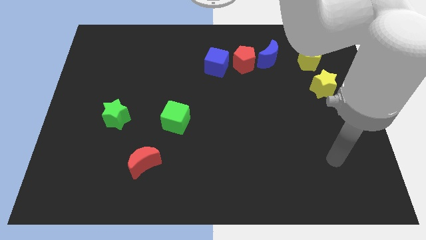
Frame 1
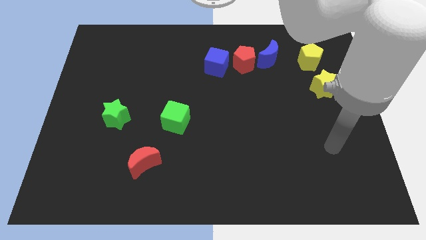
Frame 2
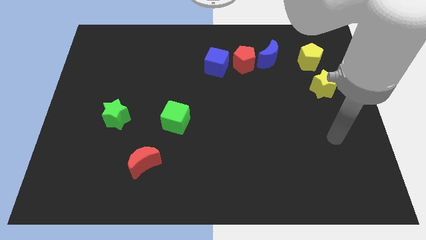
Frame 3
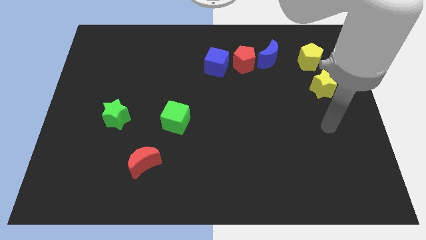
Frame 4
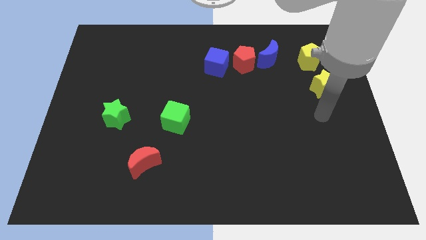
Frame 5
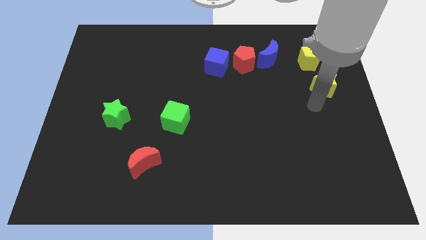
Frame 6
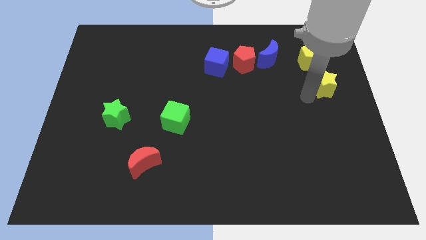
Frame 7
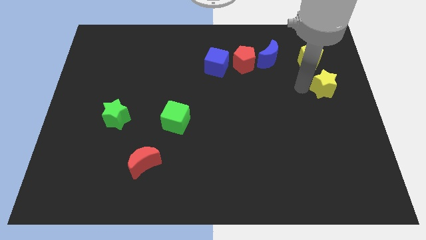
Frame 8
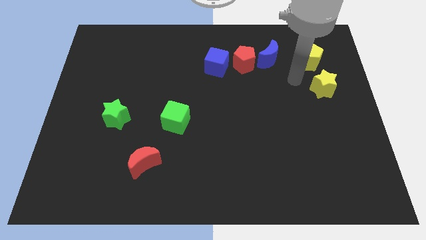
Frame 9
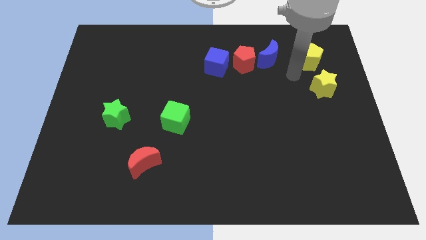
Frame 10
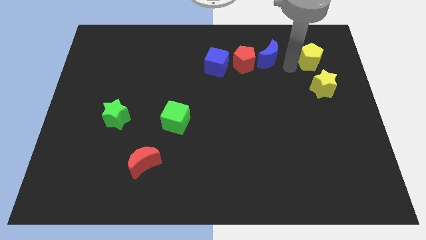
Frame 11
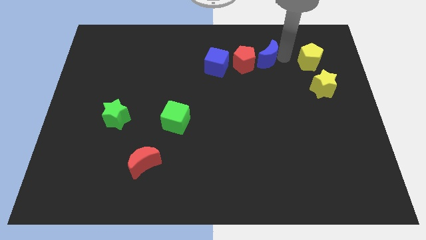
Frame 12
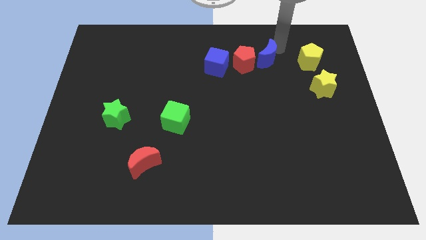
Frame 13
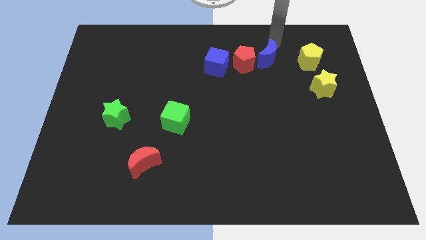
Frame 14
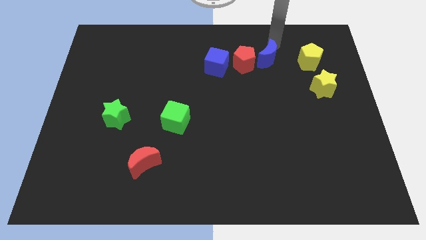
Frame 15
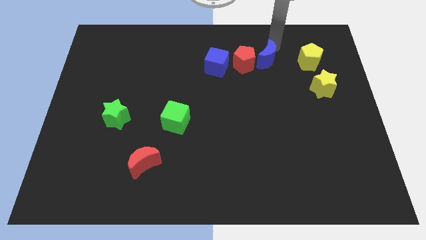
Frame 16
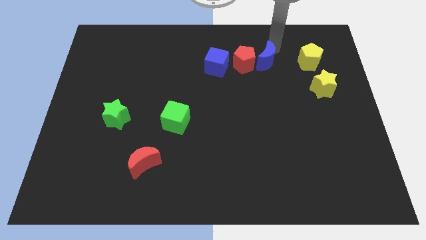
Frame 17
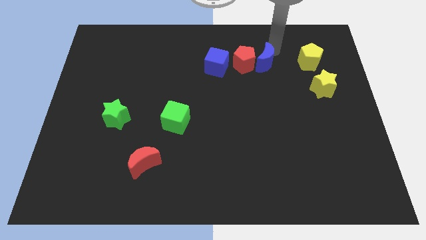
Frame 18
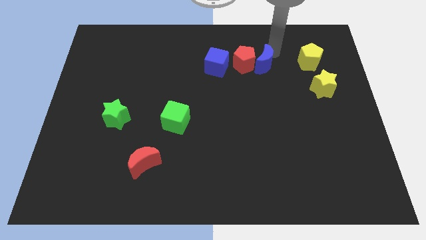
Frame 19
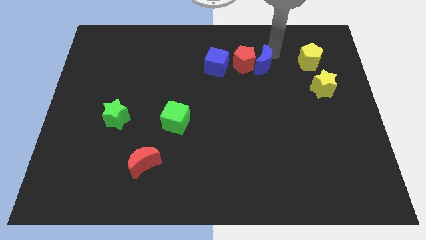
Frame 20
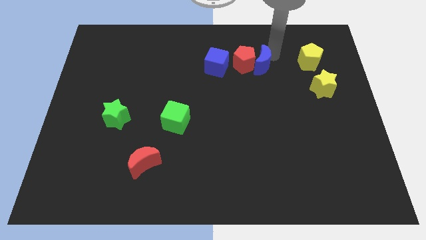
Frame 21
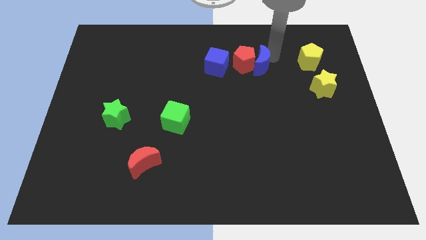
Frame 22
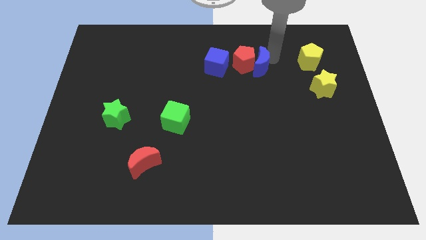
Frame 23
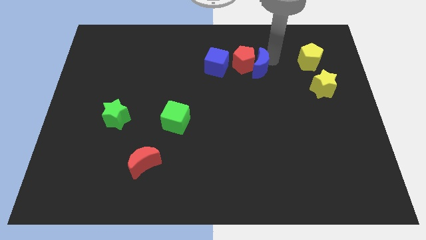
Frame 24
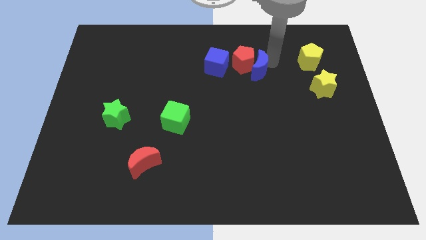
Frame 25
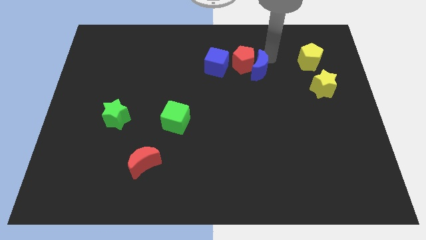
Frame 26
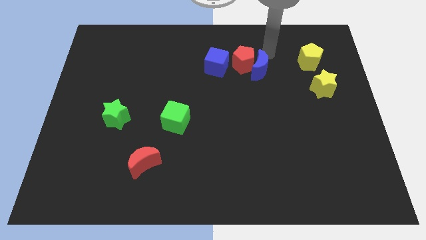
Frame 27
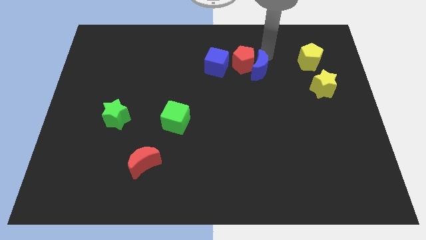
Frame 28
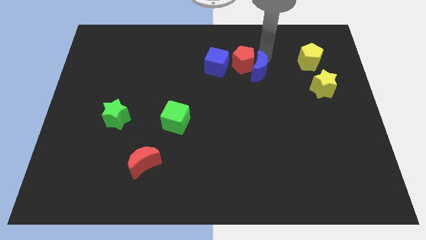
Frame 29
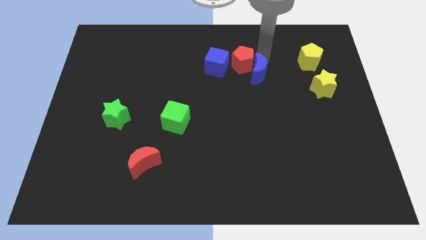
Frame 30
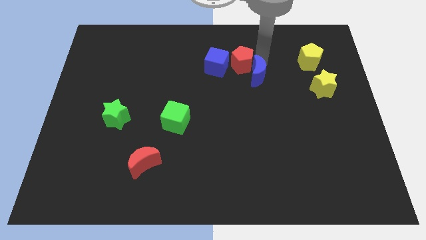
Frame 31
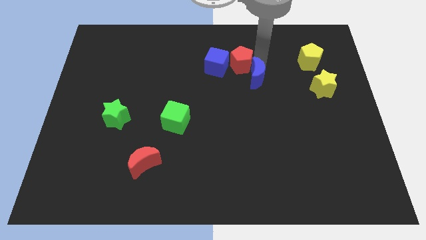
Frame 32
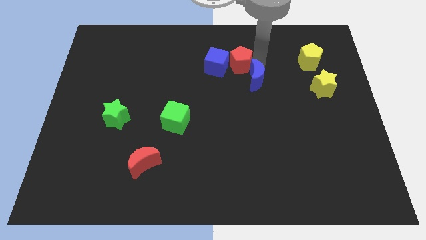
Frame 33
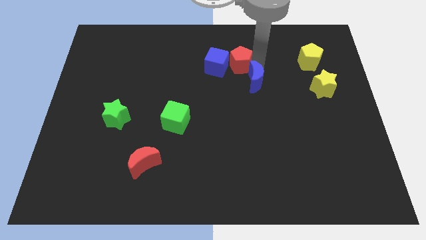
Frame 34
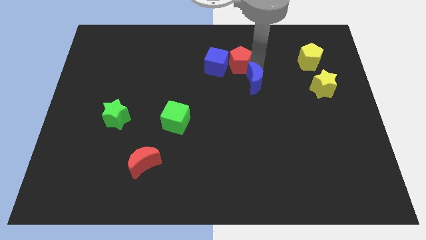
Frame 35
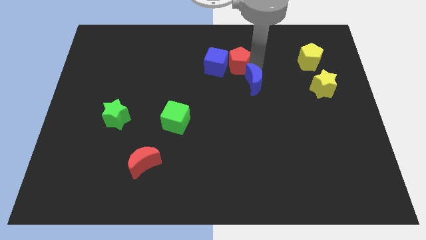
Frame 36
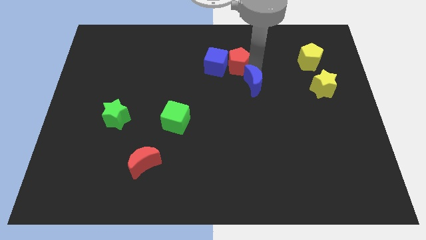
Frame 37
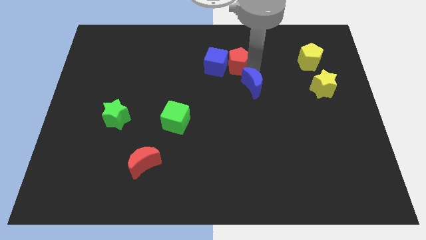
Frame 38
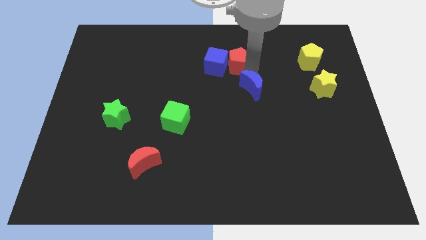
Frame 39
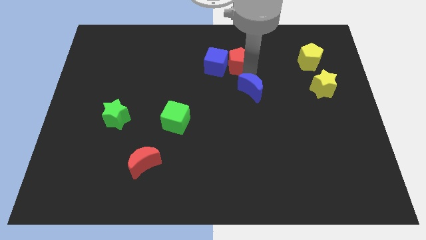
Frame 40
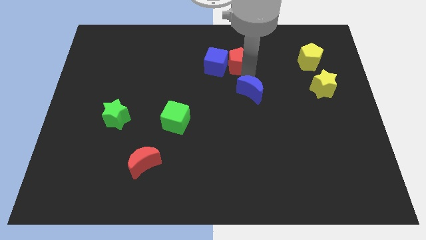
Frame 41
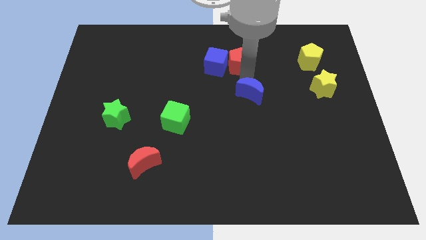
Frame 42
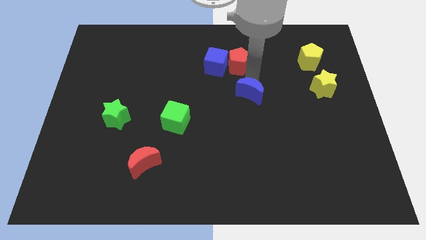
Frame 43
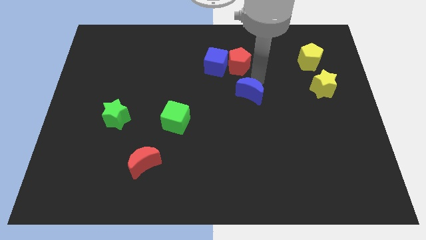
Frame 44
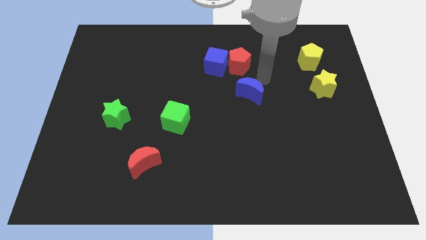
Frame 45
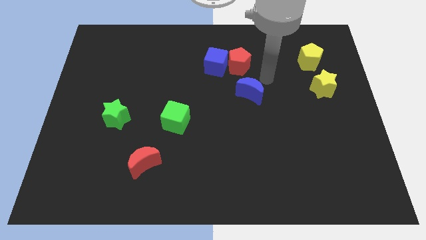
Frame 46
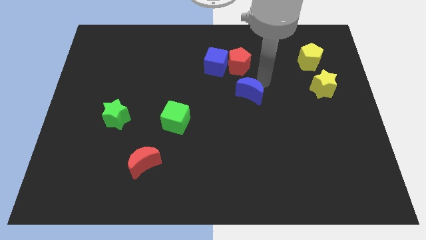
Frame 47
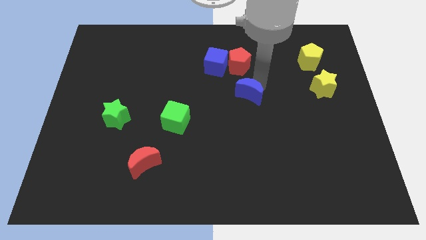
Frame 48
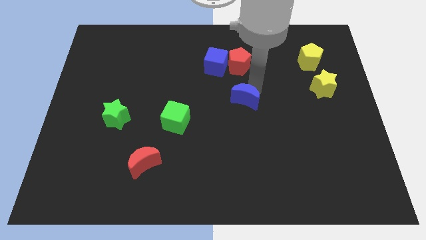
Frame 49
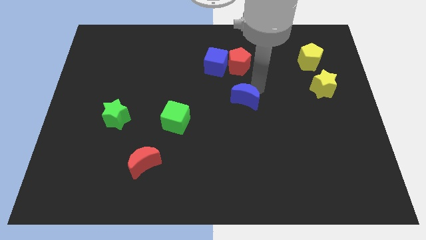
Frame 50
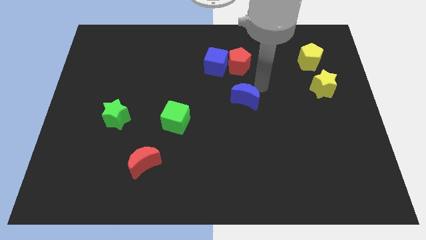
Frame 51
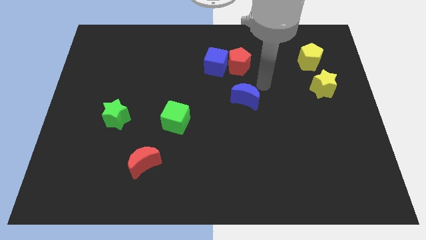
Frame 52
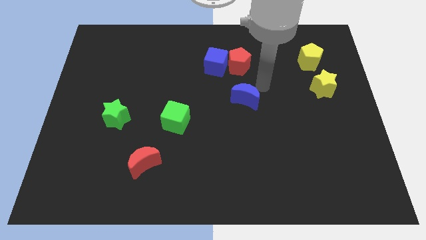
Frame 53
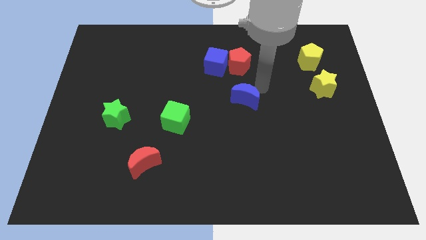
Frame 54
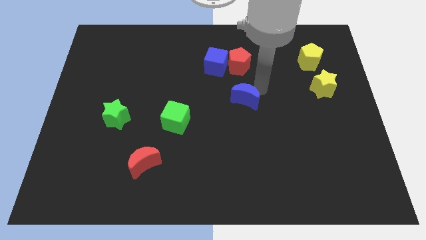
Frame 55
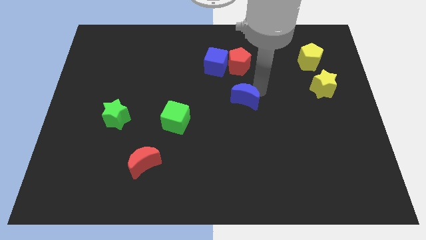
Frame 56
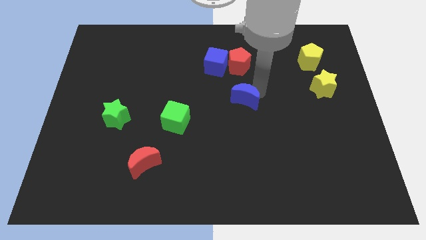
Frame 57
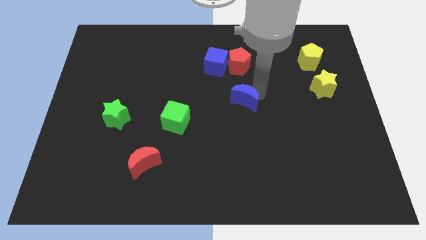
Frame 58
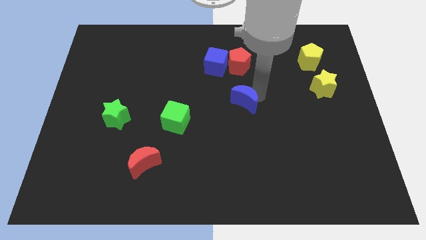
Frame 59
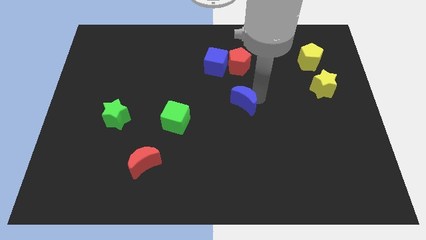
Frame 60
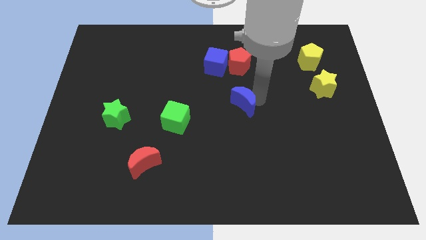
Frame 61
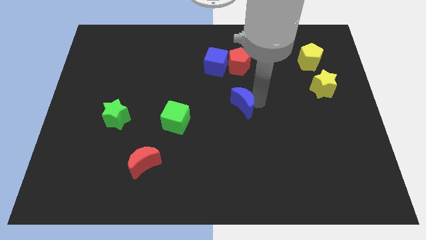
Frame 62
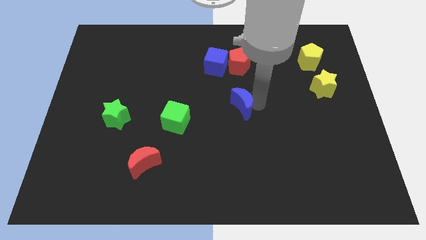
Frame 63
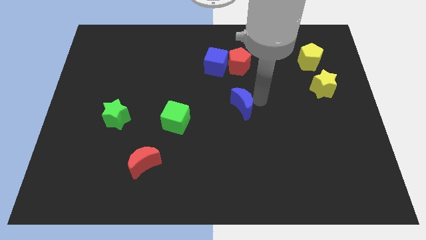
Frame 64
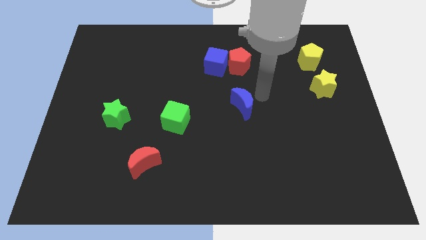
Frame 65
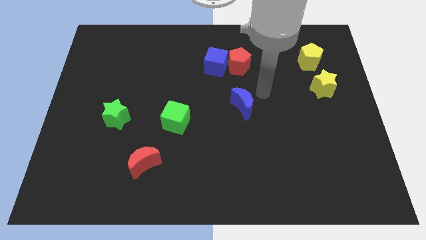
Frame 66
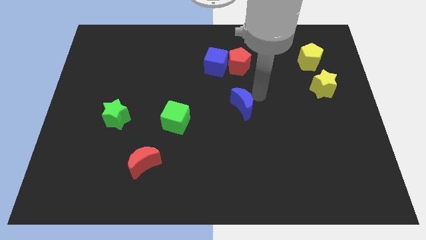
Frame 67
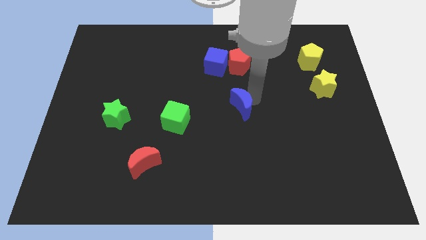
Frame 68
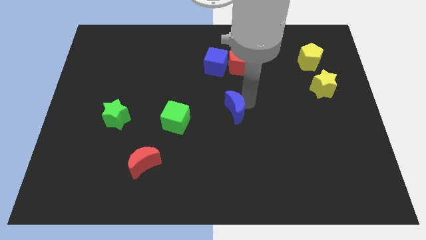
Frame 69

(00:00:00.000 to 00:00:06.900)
put the blue moon just right of the green cube
